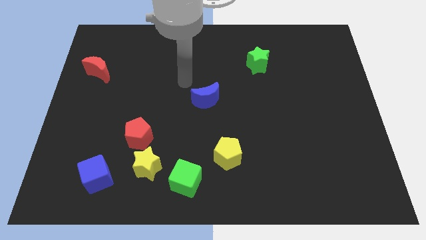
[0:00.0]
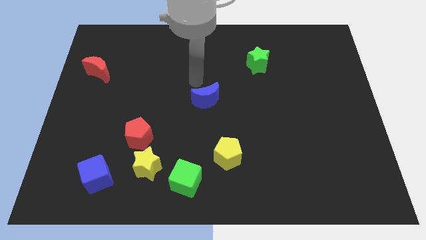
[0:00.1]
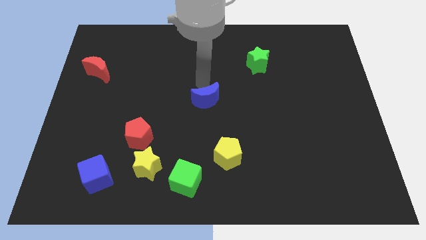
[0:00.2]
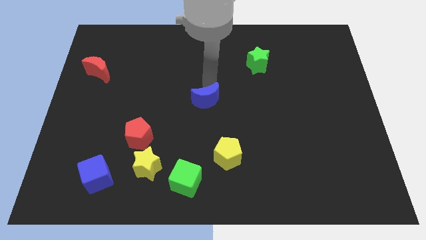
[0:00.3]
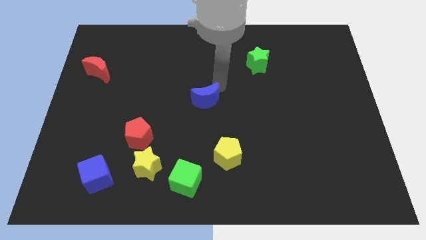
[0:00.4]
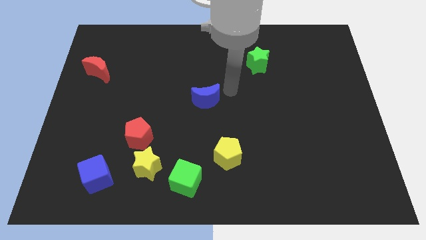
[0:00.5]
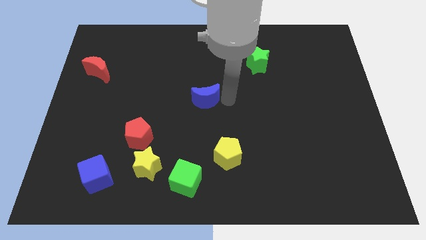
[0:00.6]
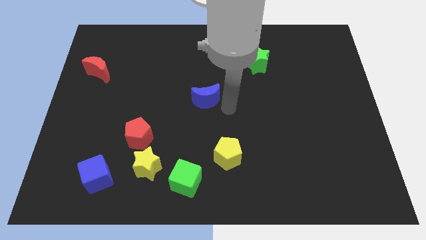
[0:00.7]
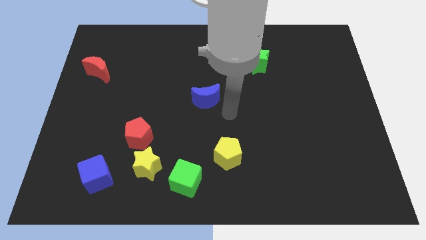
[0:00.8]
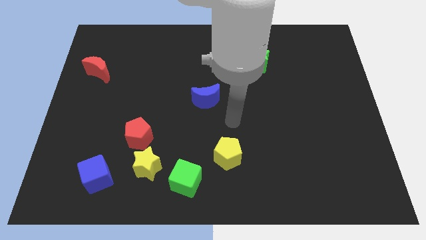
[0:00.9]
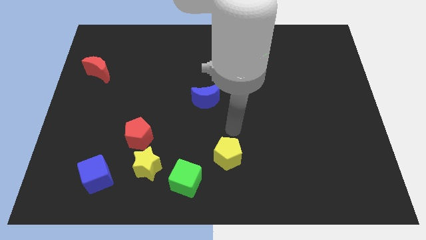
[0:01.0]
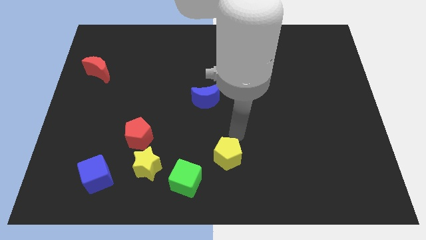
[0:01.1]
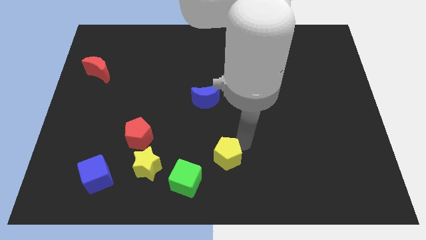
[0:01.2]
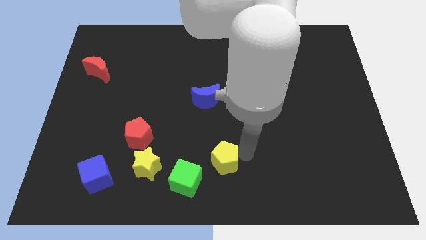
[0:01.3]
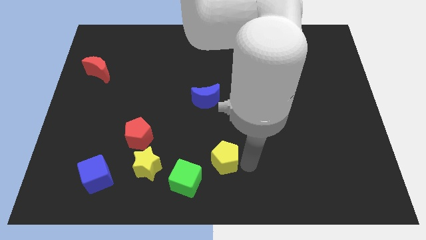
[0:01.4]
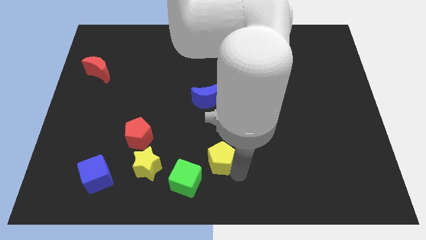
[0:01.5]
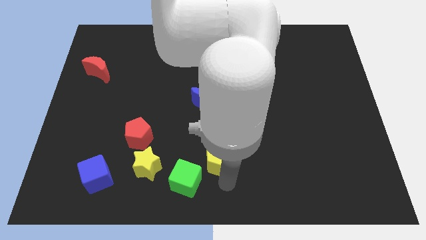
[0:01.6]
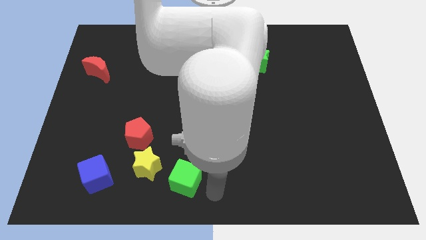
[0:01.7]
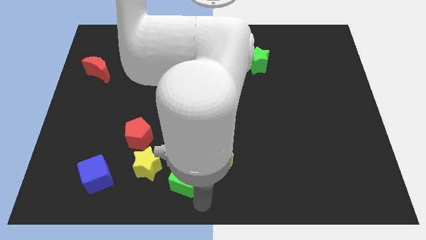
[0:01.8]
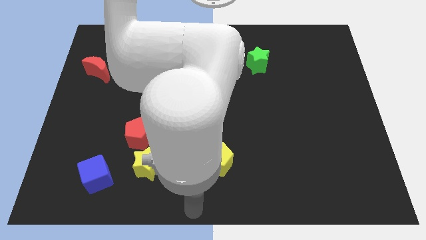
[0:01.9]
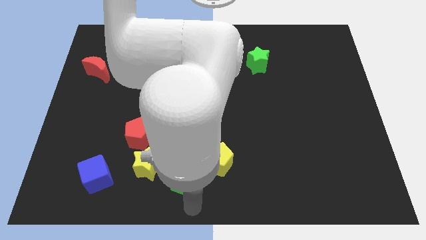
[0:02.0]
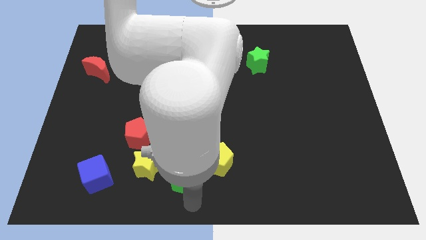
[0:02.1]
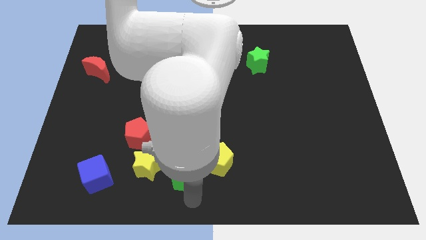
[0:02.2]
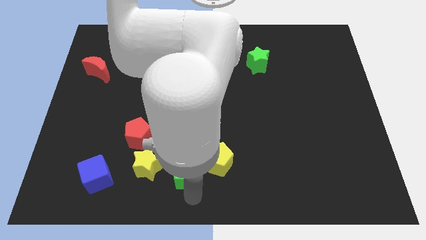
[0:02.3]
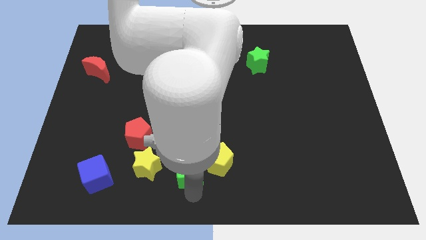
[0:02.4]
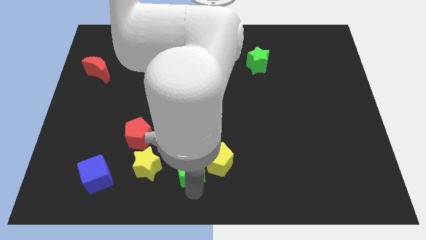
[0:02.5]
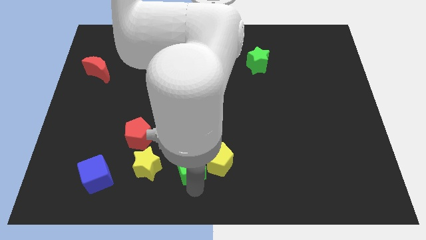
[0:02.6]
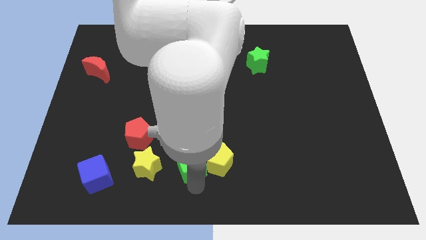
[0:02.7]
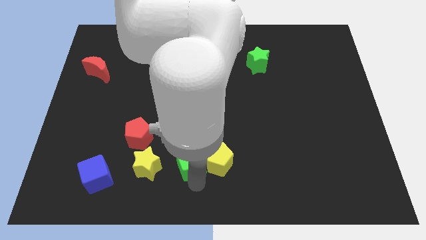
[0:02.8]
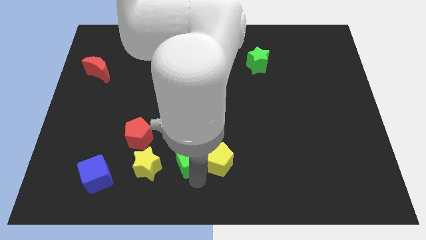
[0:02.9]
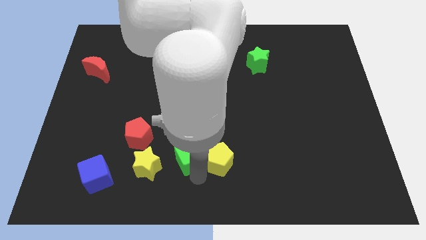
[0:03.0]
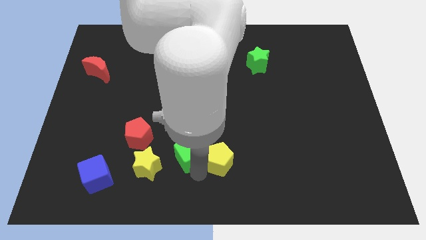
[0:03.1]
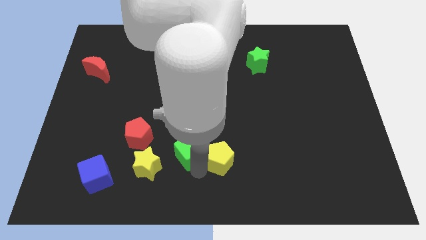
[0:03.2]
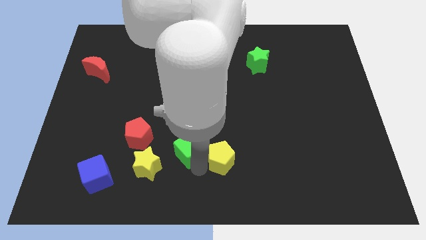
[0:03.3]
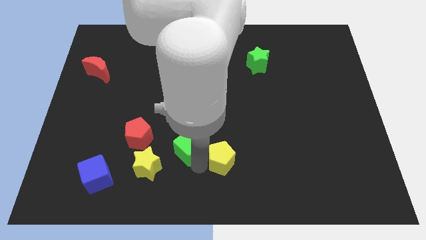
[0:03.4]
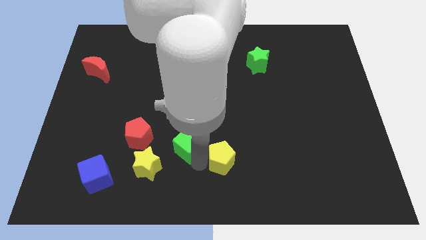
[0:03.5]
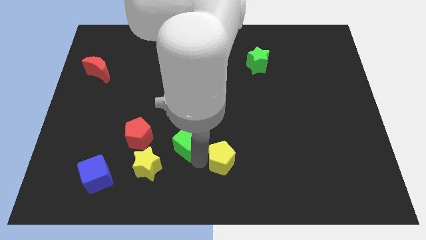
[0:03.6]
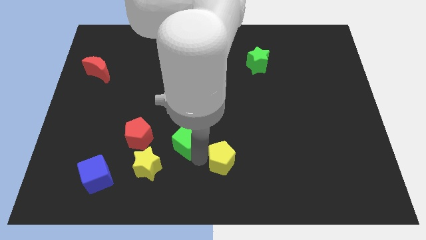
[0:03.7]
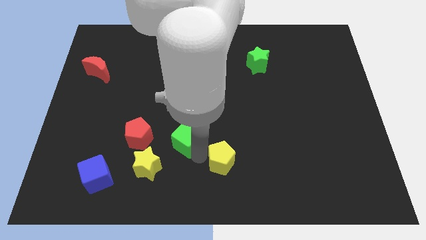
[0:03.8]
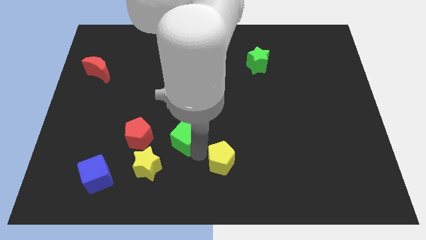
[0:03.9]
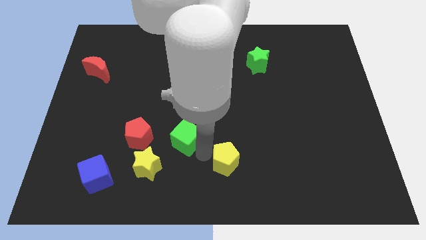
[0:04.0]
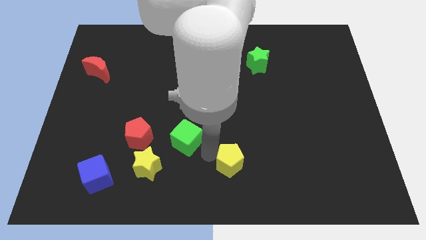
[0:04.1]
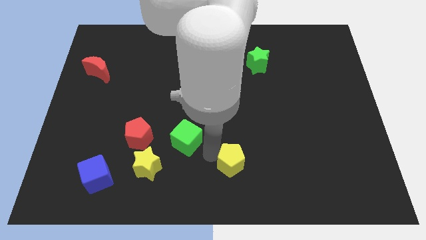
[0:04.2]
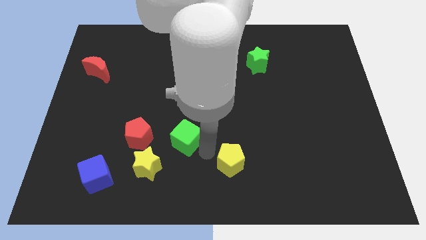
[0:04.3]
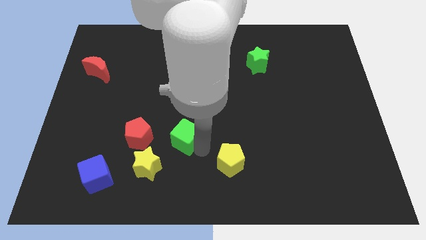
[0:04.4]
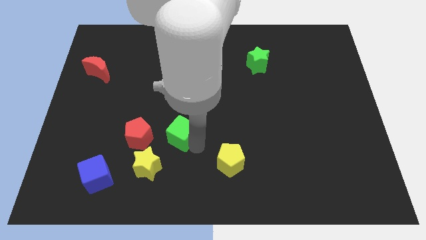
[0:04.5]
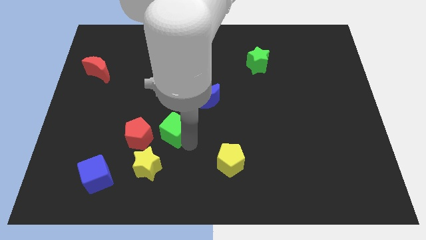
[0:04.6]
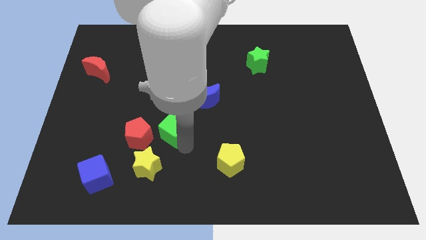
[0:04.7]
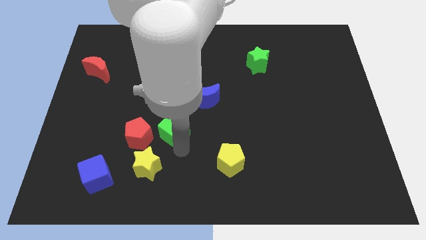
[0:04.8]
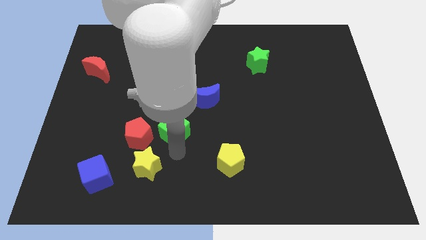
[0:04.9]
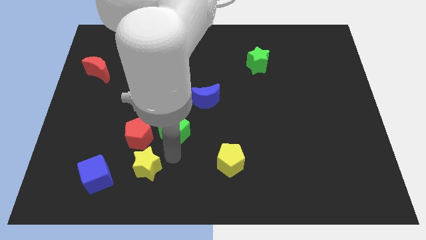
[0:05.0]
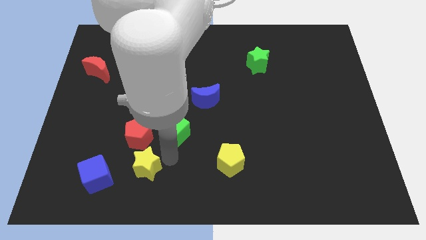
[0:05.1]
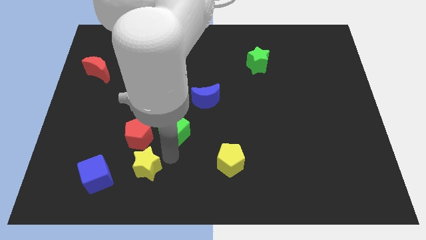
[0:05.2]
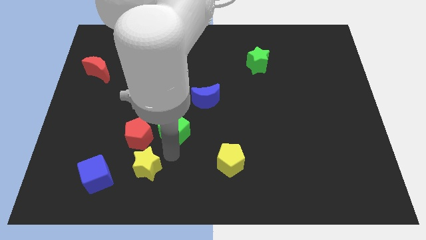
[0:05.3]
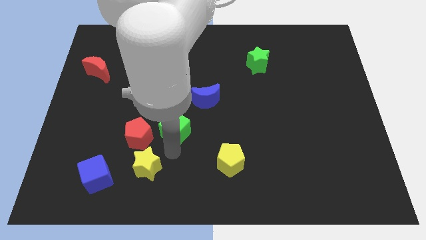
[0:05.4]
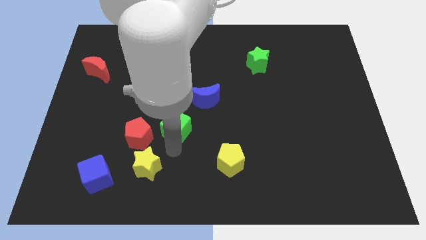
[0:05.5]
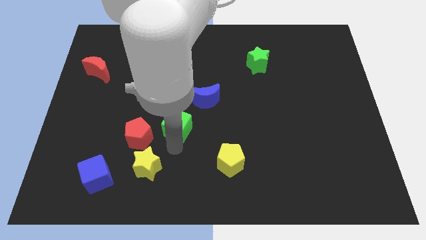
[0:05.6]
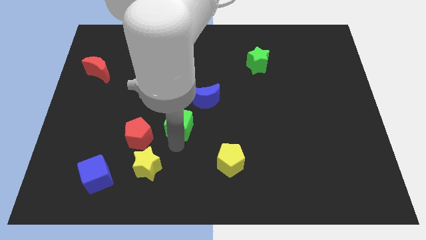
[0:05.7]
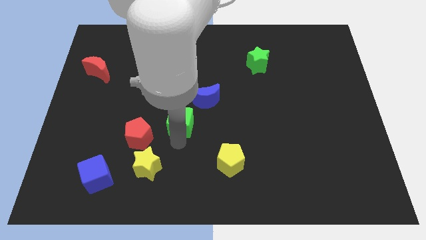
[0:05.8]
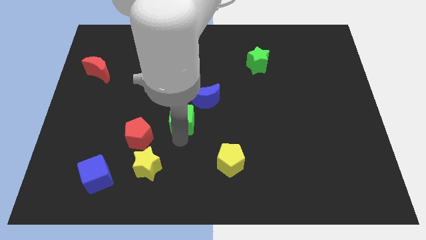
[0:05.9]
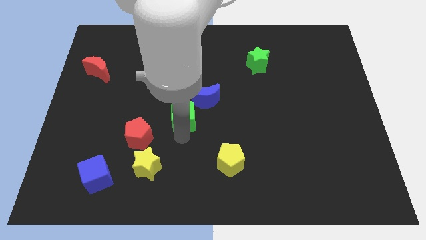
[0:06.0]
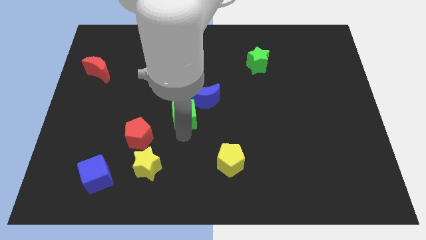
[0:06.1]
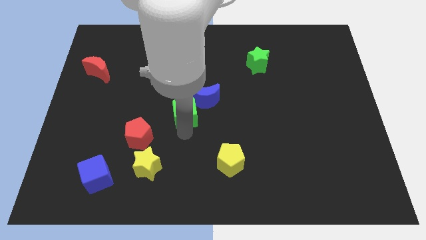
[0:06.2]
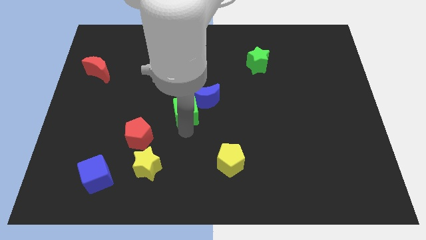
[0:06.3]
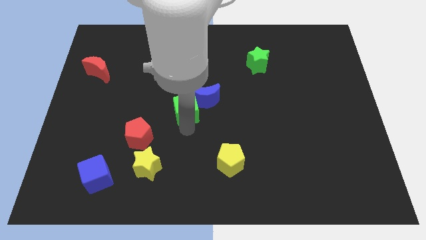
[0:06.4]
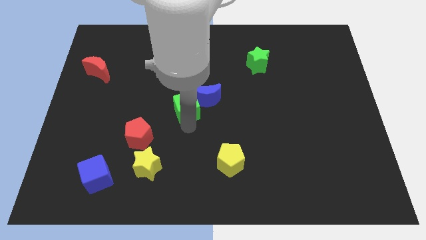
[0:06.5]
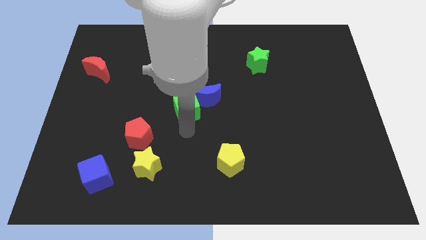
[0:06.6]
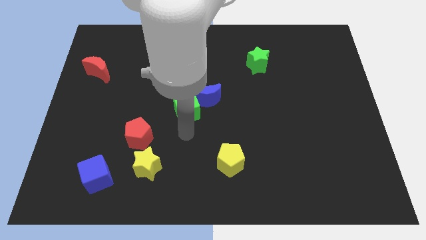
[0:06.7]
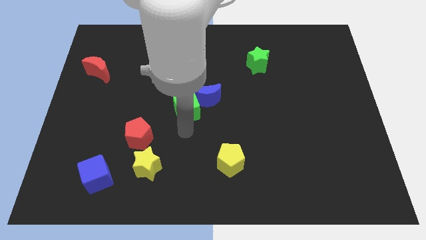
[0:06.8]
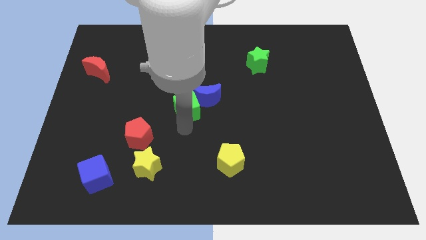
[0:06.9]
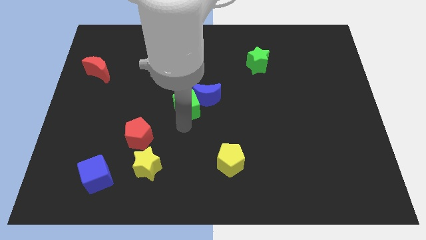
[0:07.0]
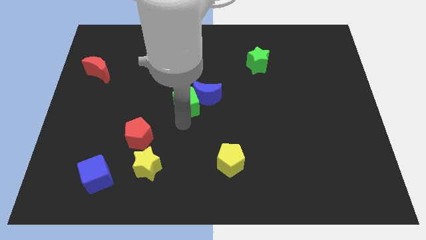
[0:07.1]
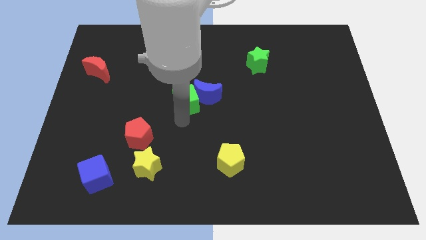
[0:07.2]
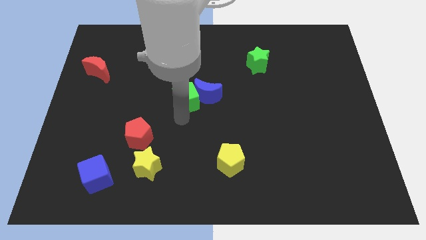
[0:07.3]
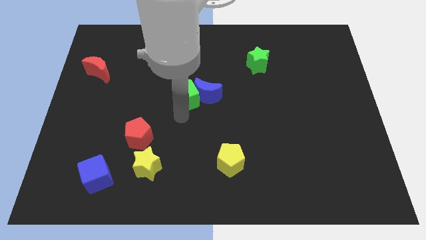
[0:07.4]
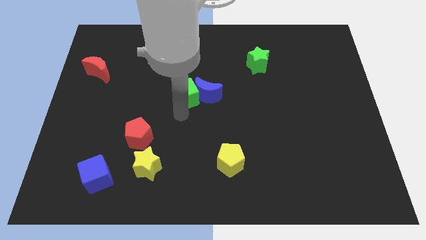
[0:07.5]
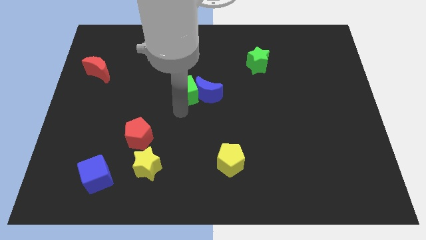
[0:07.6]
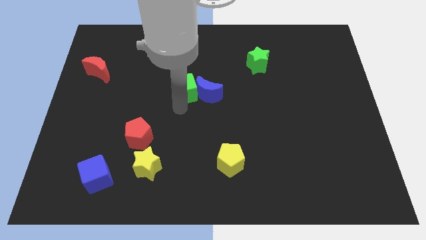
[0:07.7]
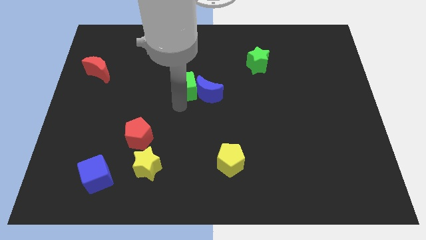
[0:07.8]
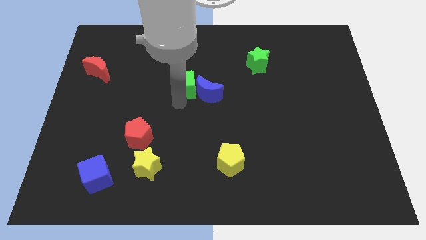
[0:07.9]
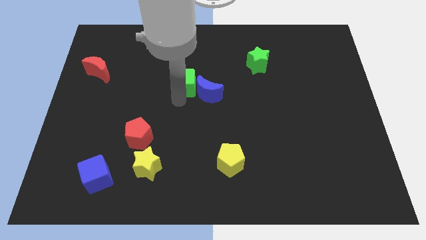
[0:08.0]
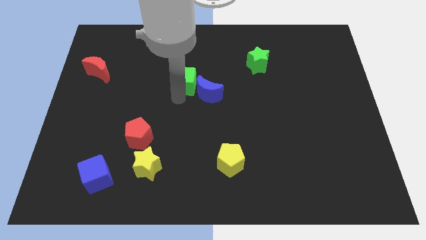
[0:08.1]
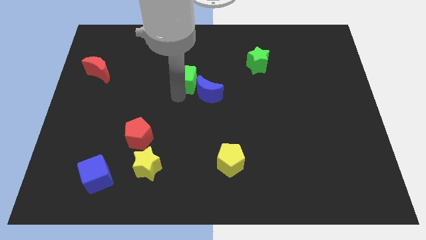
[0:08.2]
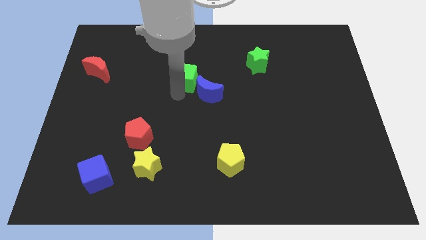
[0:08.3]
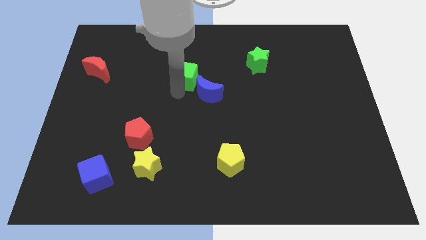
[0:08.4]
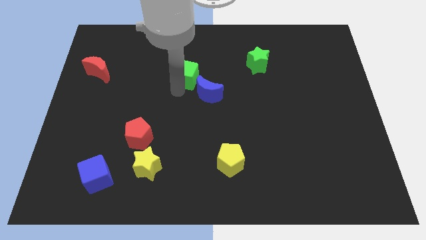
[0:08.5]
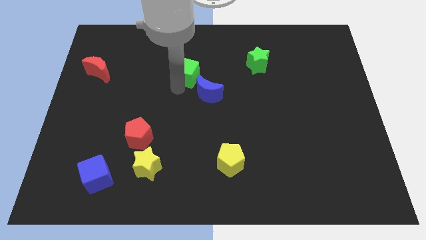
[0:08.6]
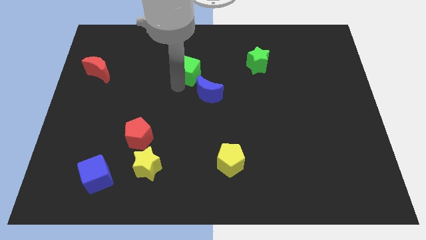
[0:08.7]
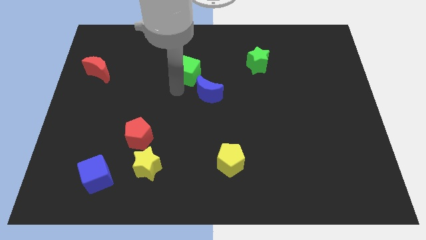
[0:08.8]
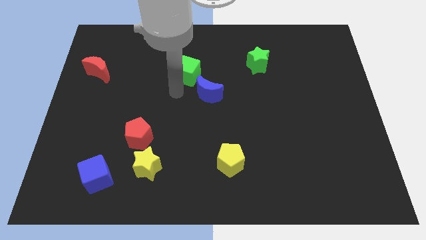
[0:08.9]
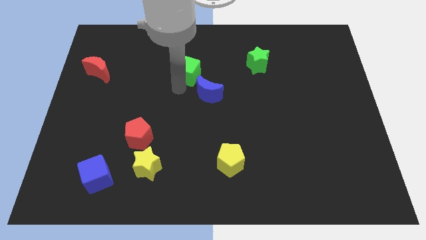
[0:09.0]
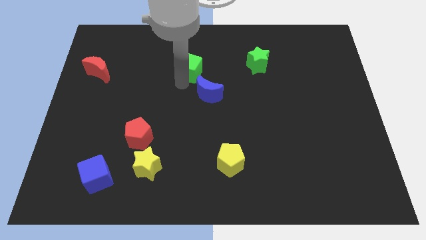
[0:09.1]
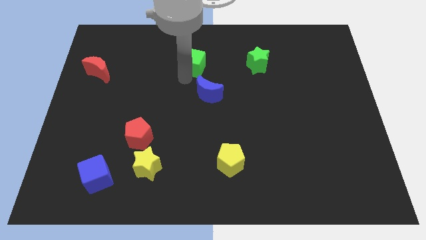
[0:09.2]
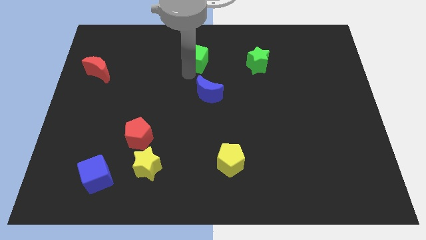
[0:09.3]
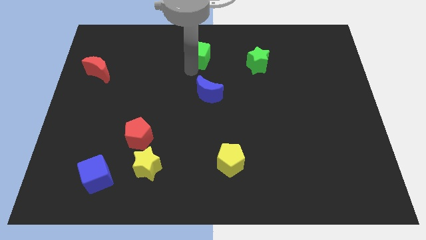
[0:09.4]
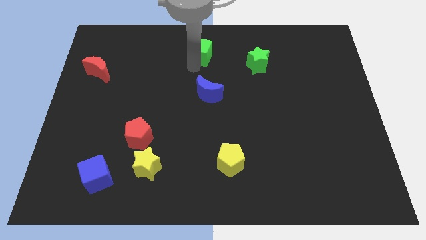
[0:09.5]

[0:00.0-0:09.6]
slide the green cube to the top
